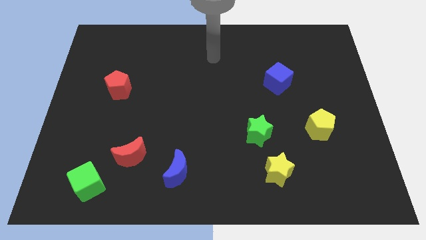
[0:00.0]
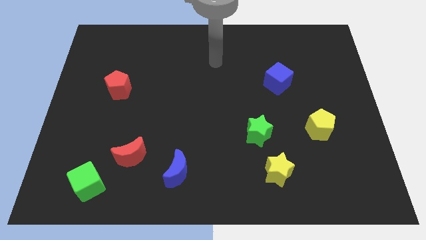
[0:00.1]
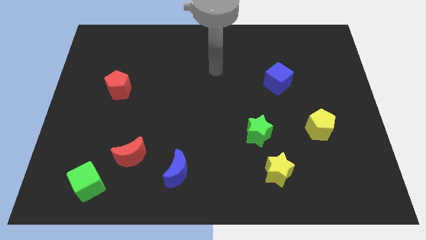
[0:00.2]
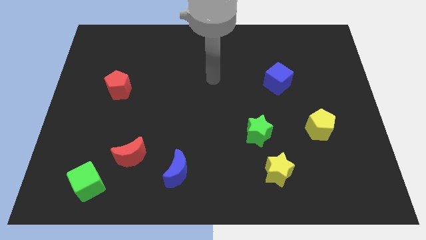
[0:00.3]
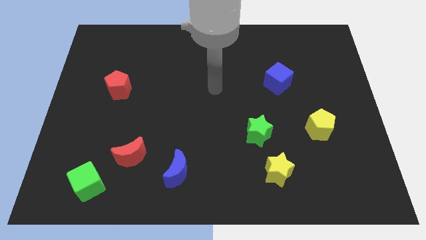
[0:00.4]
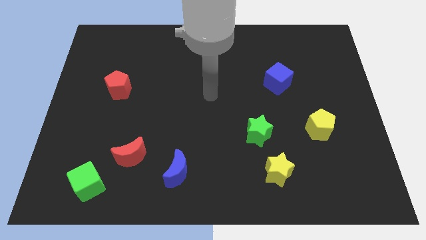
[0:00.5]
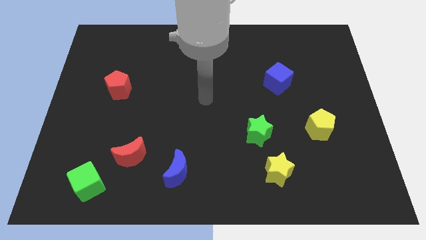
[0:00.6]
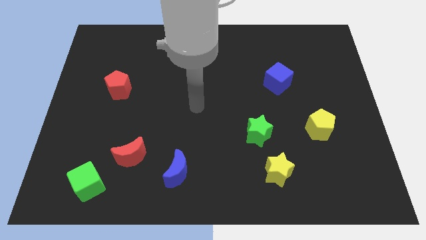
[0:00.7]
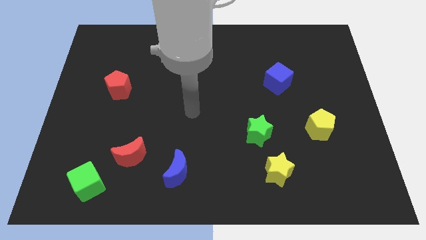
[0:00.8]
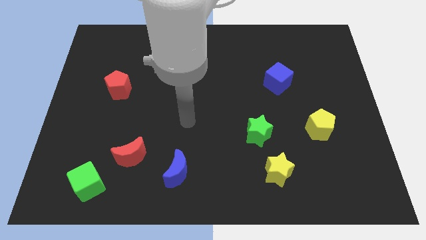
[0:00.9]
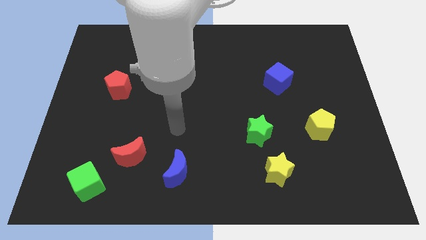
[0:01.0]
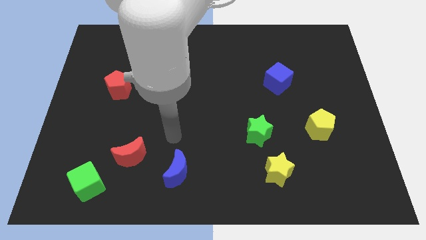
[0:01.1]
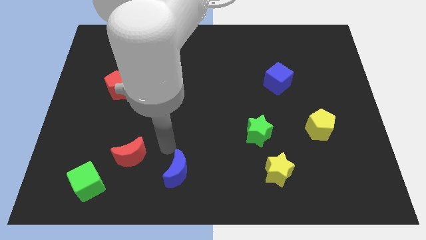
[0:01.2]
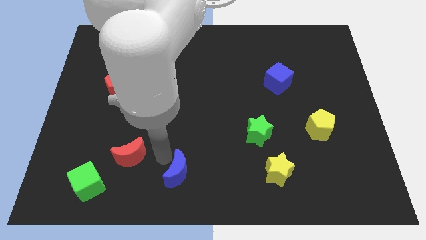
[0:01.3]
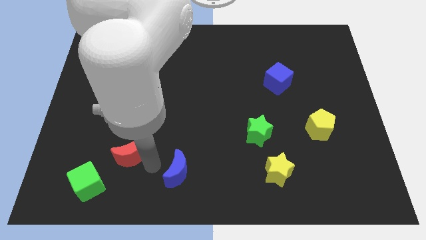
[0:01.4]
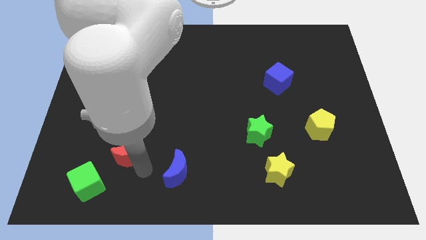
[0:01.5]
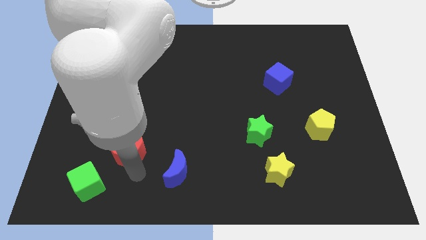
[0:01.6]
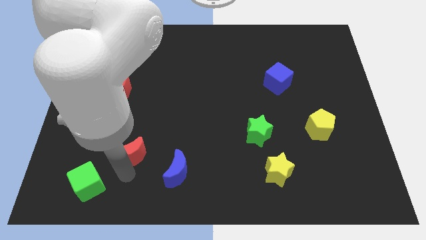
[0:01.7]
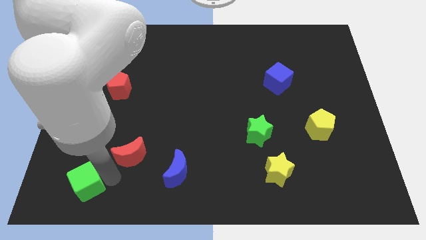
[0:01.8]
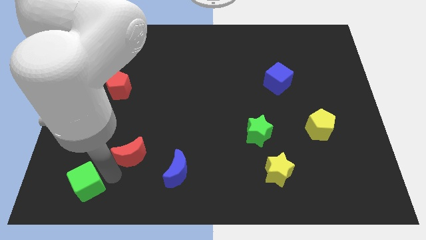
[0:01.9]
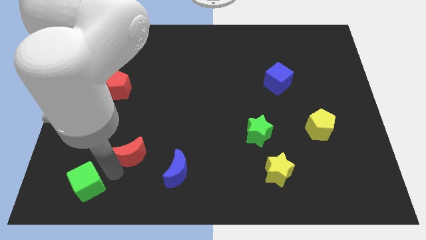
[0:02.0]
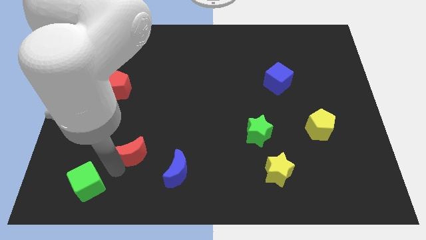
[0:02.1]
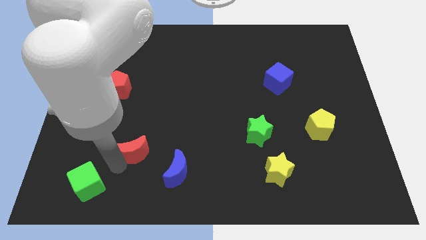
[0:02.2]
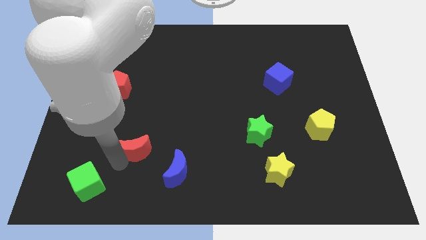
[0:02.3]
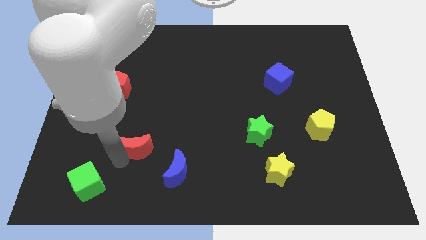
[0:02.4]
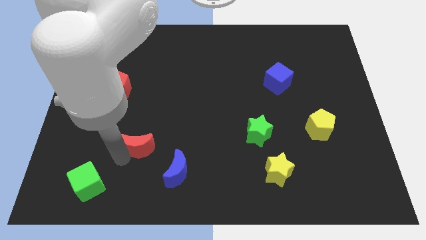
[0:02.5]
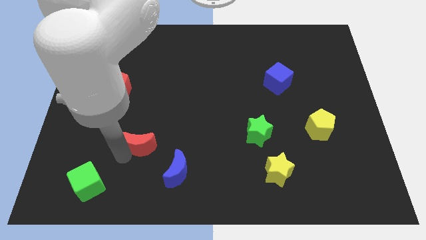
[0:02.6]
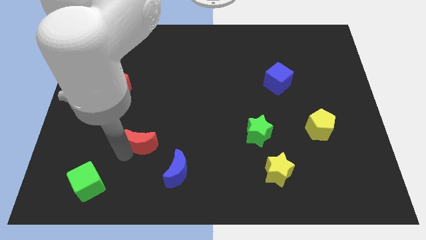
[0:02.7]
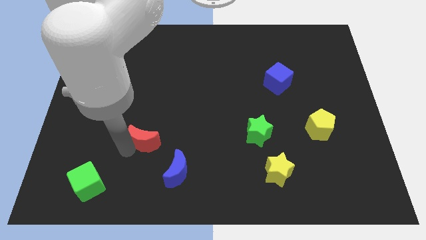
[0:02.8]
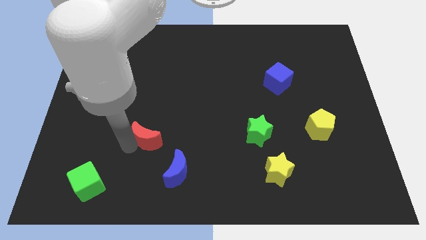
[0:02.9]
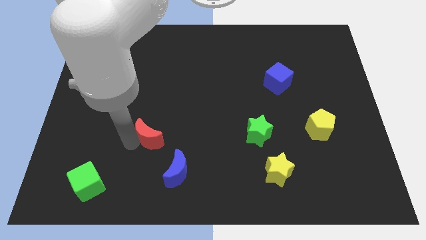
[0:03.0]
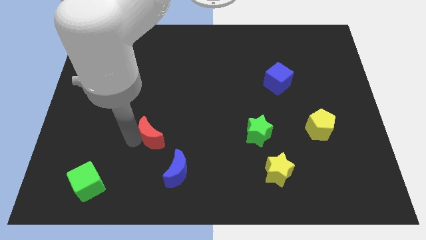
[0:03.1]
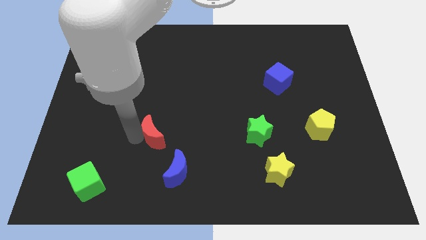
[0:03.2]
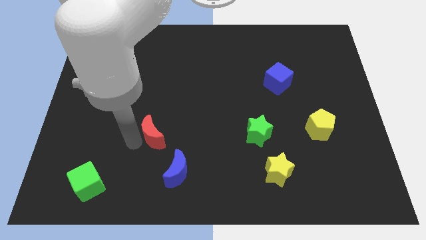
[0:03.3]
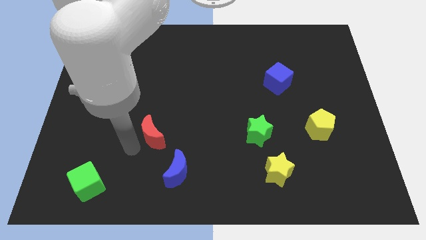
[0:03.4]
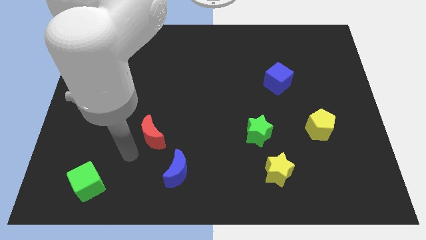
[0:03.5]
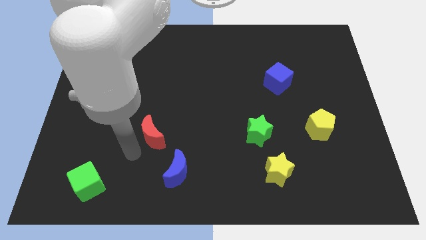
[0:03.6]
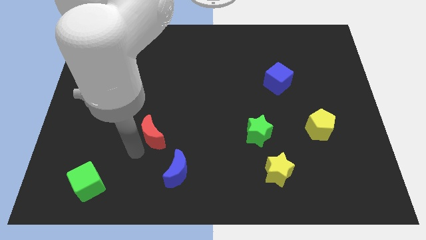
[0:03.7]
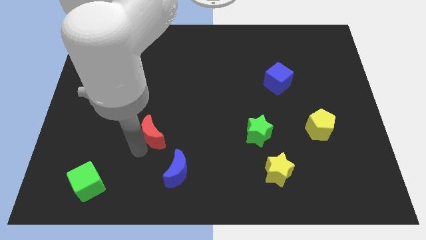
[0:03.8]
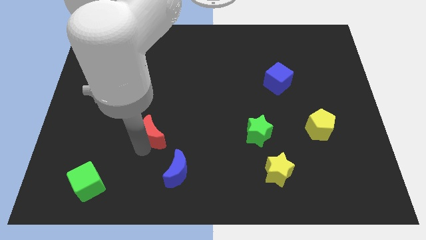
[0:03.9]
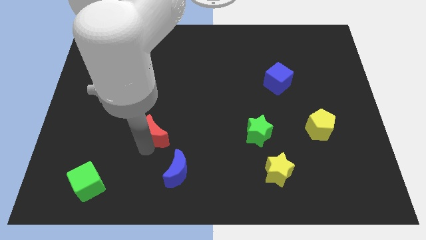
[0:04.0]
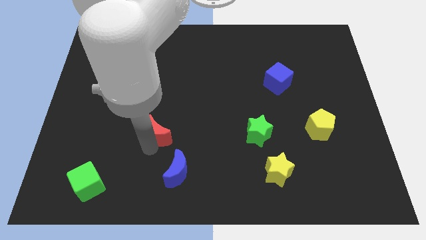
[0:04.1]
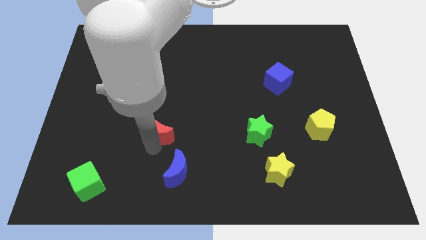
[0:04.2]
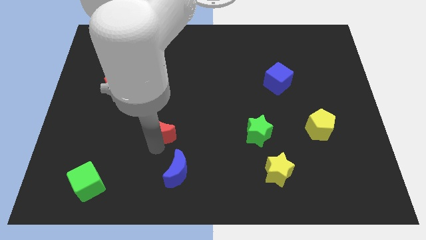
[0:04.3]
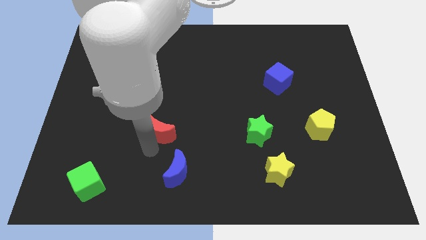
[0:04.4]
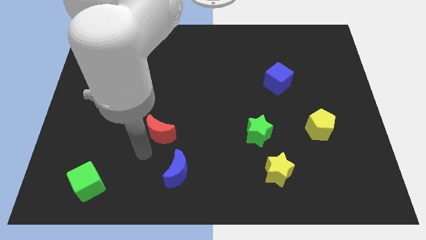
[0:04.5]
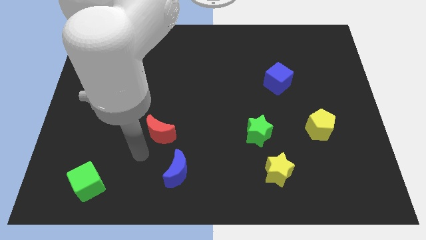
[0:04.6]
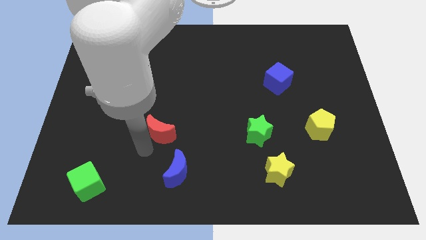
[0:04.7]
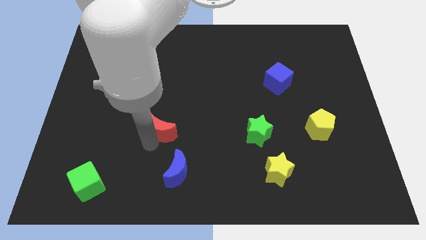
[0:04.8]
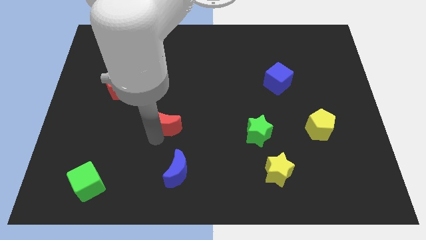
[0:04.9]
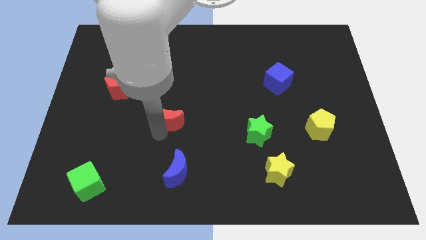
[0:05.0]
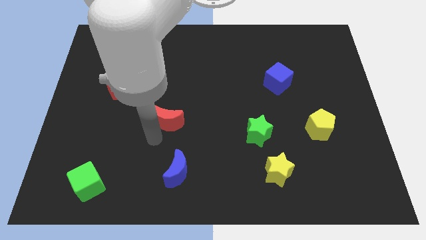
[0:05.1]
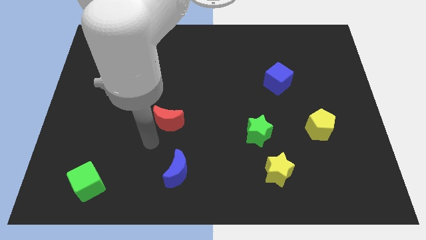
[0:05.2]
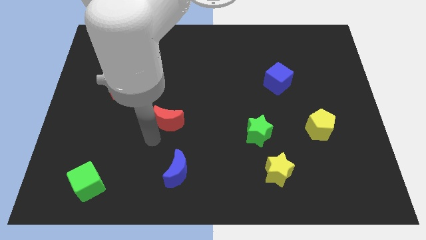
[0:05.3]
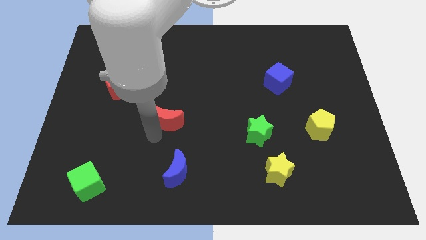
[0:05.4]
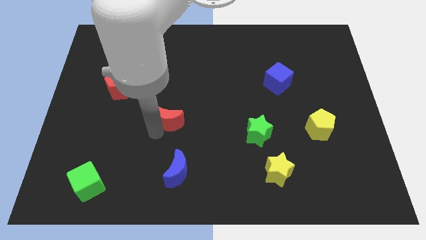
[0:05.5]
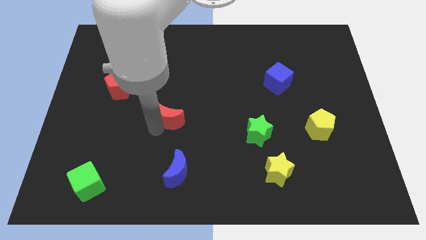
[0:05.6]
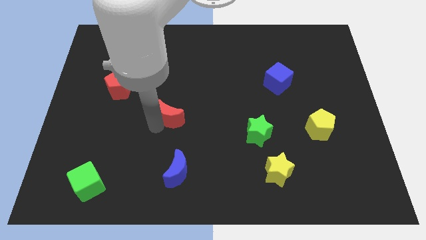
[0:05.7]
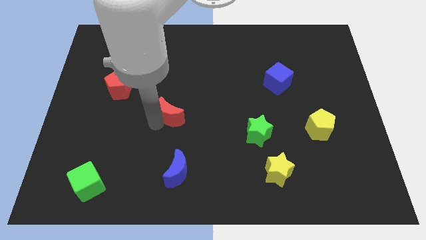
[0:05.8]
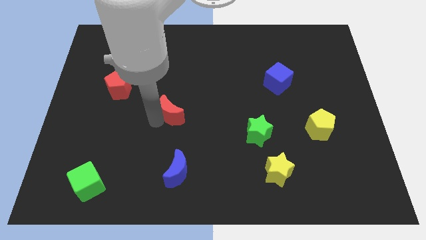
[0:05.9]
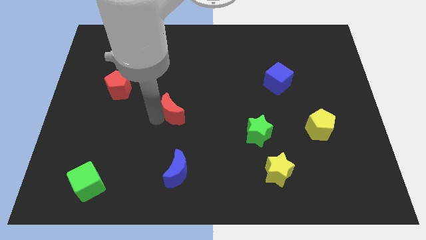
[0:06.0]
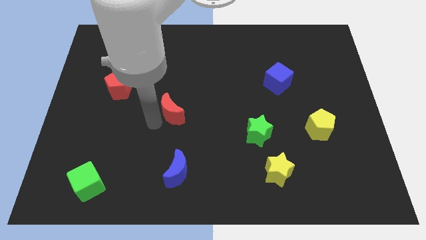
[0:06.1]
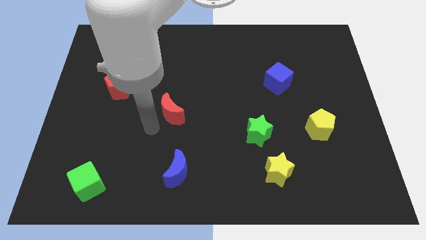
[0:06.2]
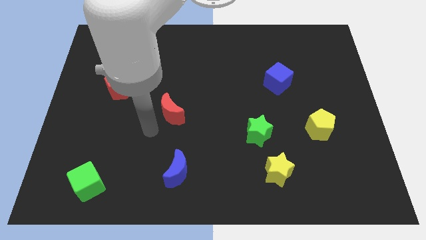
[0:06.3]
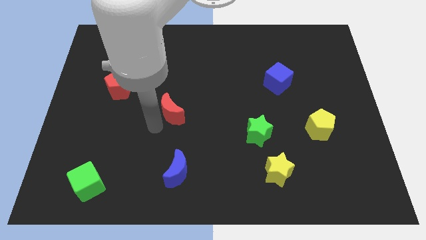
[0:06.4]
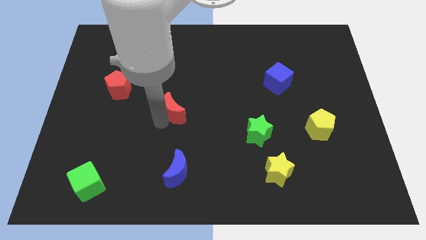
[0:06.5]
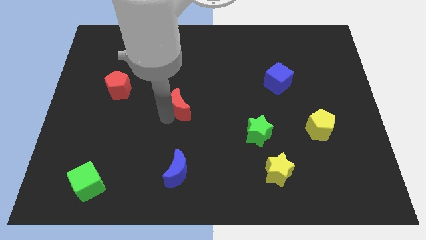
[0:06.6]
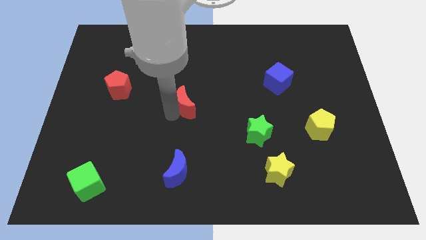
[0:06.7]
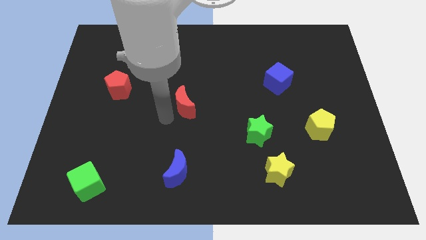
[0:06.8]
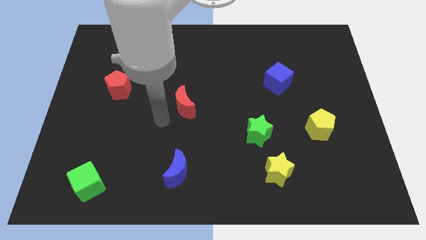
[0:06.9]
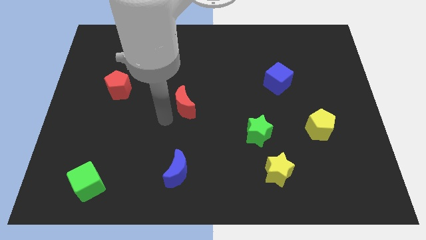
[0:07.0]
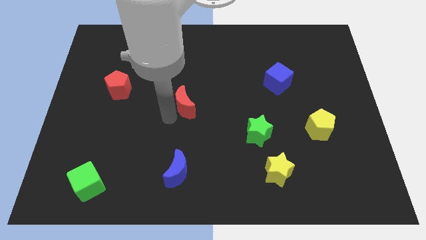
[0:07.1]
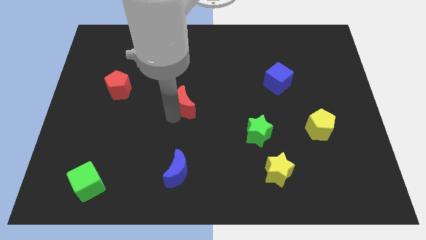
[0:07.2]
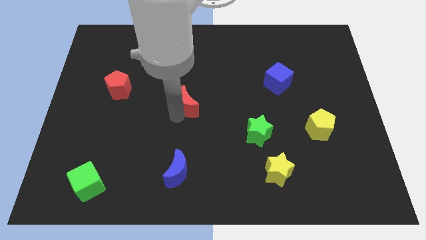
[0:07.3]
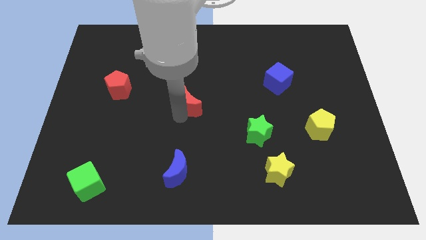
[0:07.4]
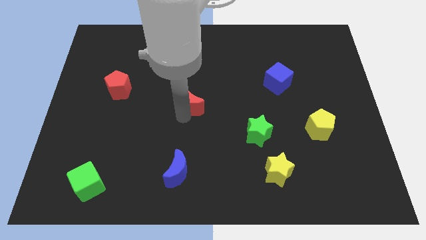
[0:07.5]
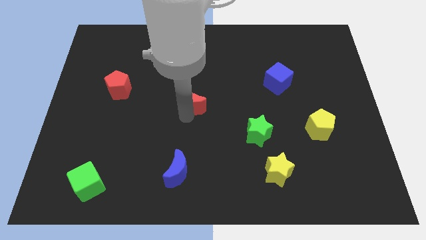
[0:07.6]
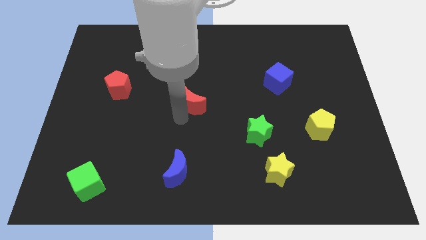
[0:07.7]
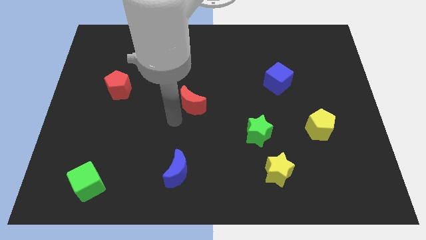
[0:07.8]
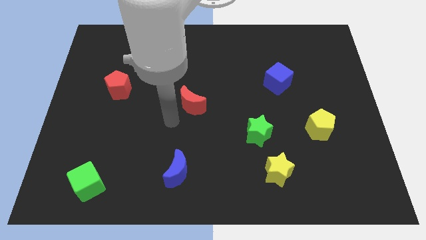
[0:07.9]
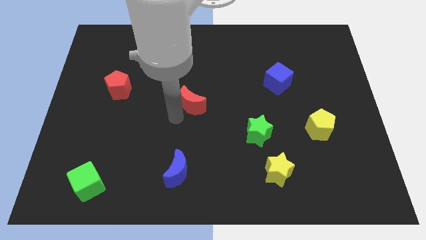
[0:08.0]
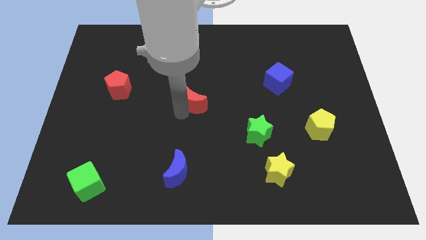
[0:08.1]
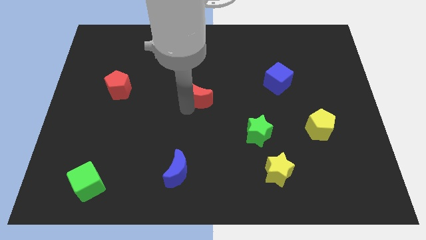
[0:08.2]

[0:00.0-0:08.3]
slide the red moon up and right
